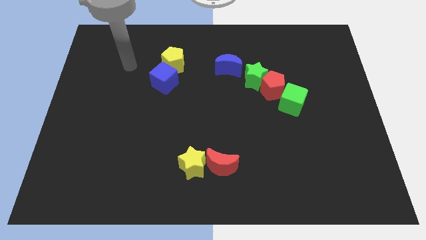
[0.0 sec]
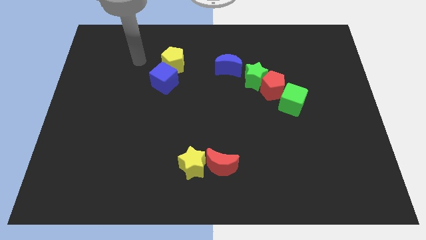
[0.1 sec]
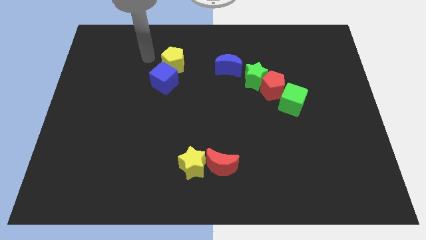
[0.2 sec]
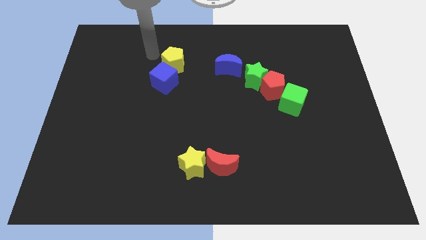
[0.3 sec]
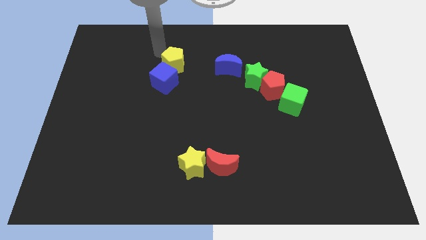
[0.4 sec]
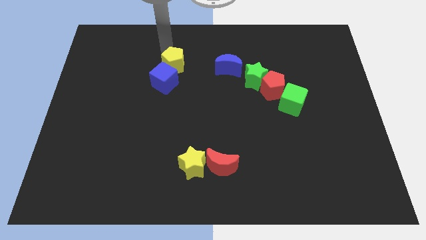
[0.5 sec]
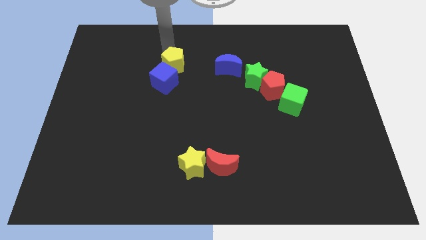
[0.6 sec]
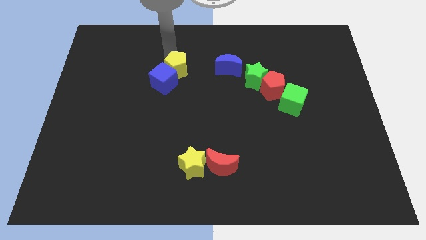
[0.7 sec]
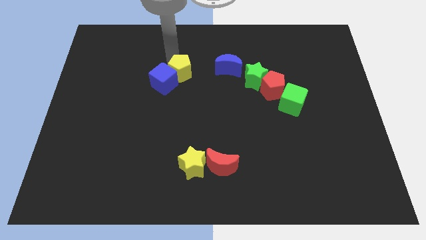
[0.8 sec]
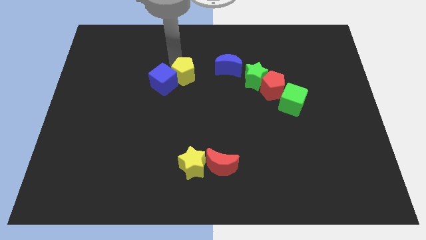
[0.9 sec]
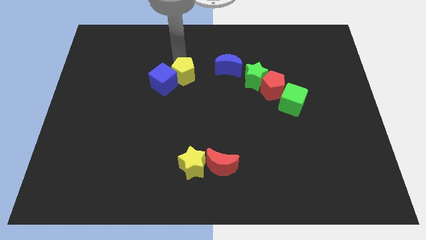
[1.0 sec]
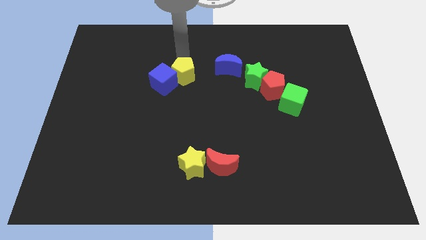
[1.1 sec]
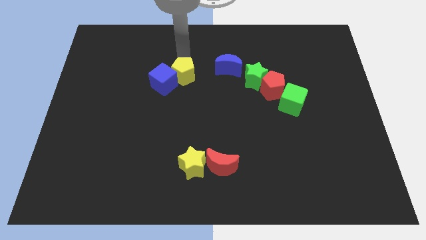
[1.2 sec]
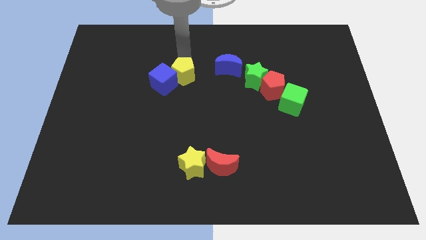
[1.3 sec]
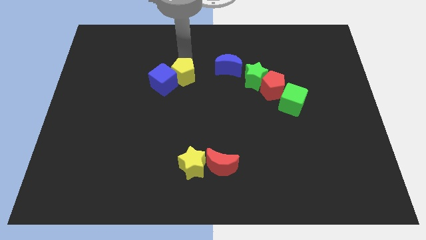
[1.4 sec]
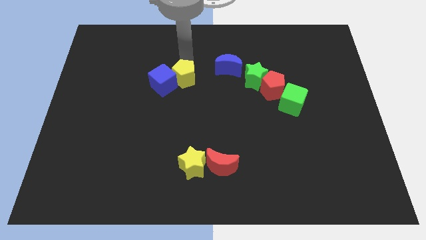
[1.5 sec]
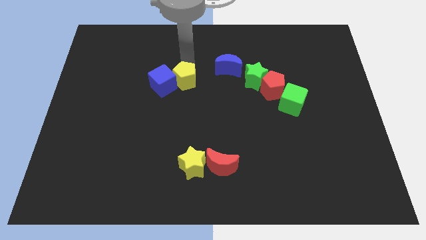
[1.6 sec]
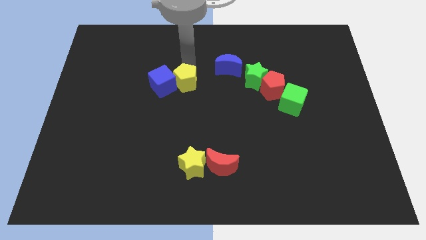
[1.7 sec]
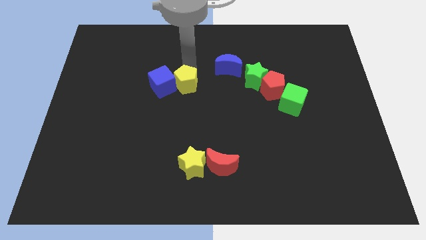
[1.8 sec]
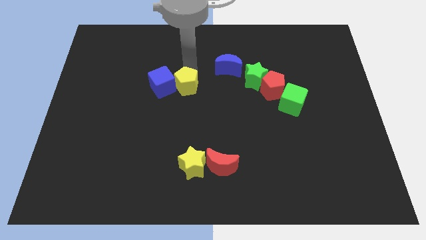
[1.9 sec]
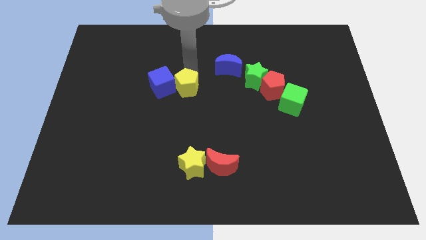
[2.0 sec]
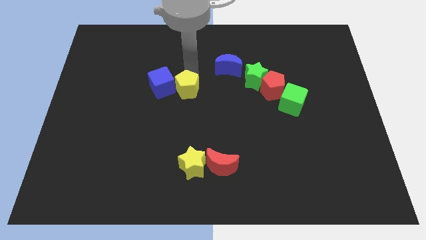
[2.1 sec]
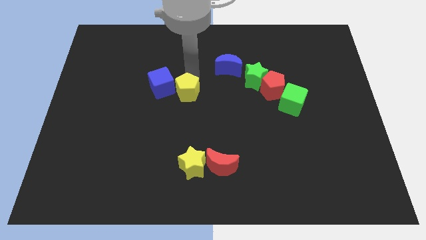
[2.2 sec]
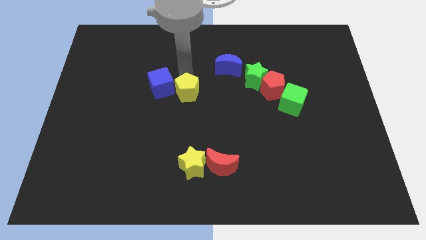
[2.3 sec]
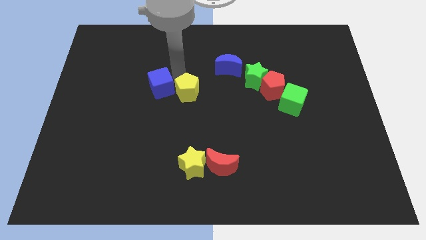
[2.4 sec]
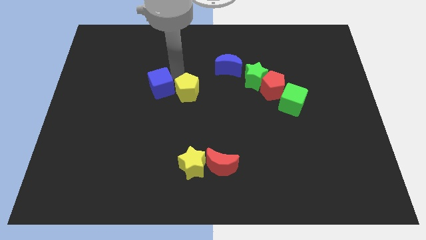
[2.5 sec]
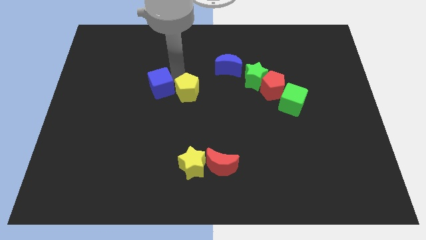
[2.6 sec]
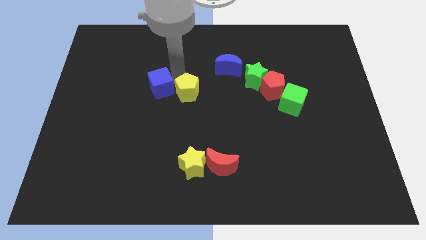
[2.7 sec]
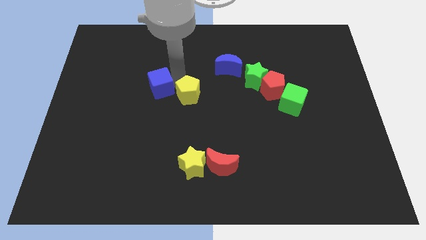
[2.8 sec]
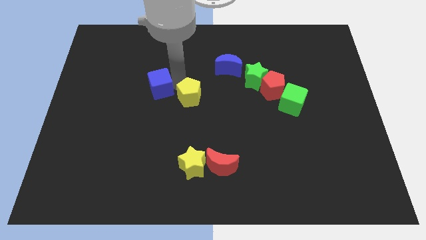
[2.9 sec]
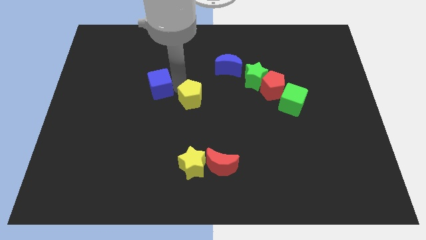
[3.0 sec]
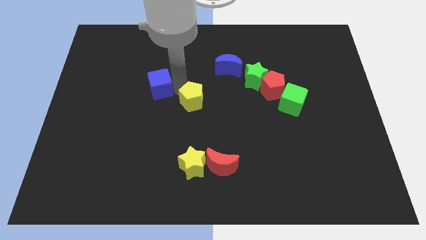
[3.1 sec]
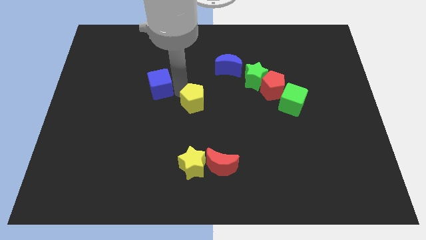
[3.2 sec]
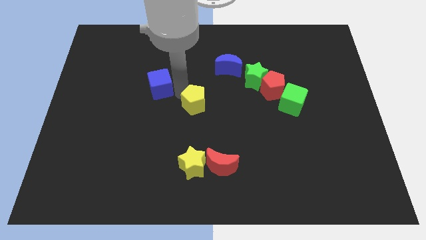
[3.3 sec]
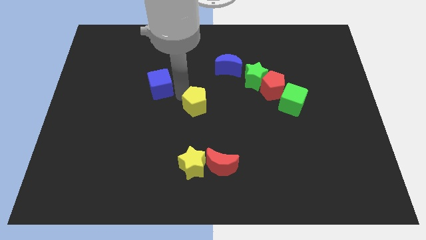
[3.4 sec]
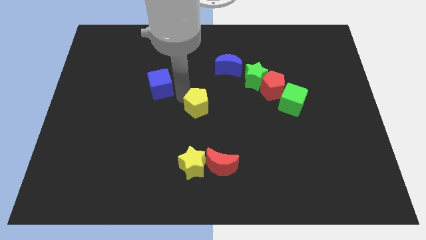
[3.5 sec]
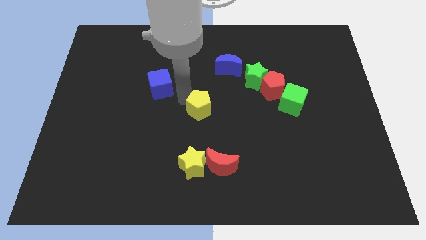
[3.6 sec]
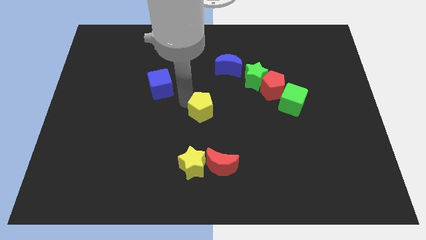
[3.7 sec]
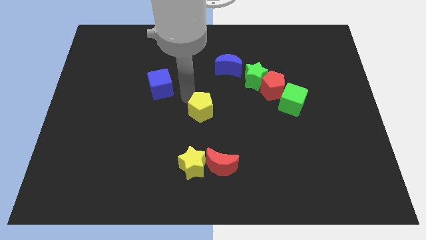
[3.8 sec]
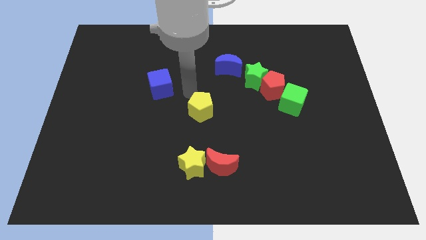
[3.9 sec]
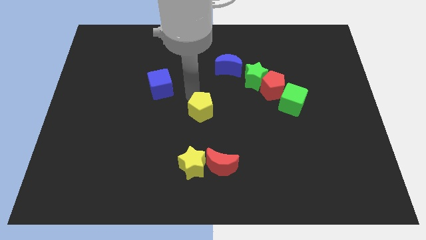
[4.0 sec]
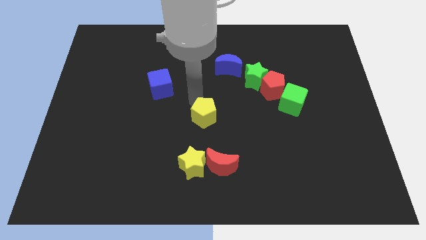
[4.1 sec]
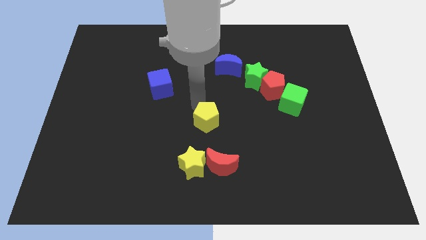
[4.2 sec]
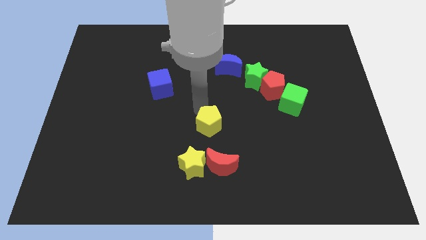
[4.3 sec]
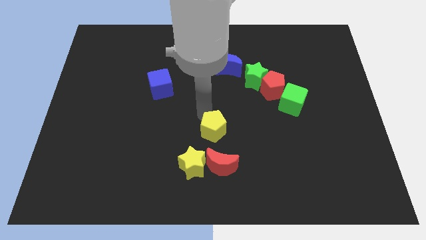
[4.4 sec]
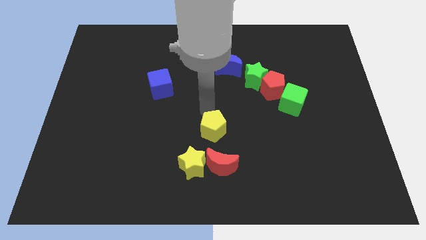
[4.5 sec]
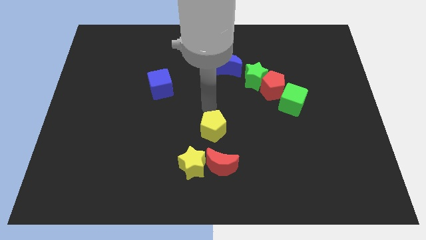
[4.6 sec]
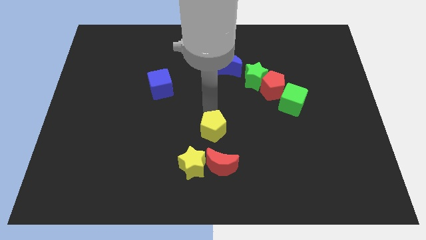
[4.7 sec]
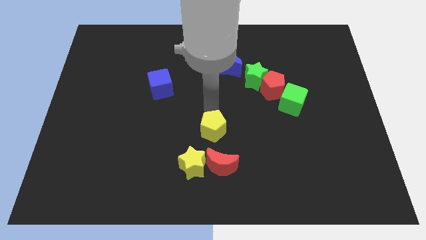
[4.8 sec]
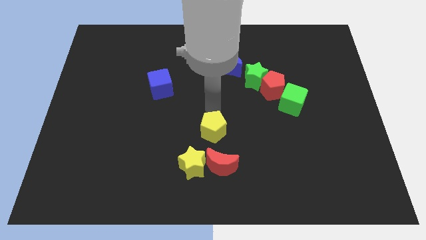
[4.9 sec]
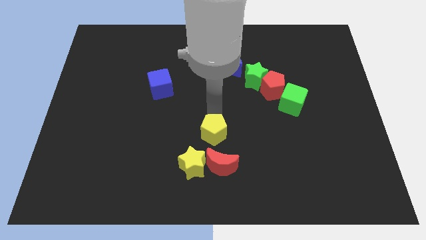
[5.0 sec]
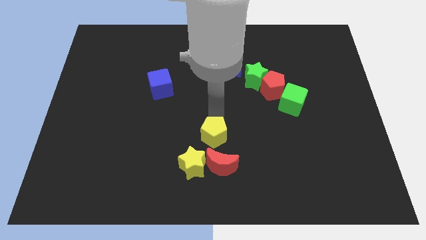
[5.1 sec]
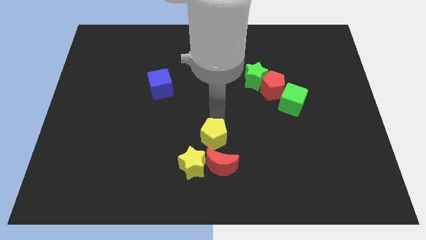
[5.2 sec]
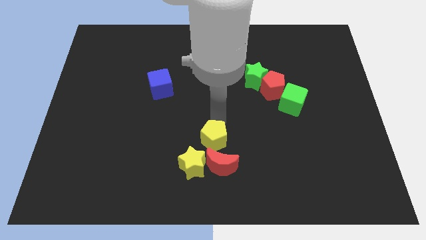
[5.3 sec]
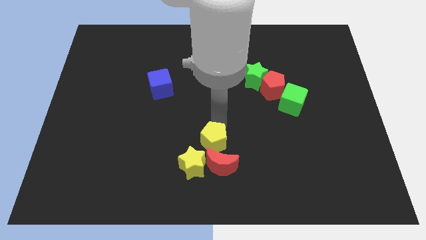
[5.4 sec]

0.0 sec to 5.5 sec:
put the yellow pentagon close to the red moon

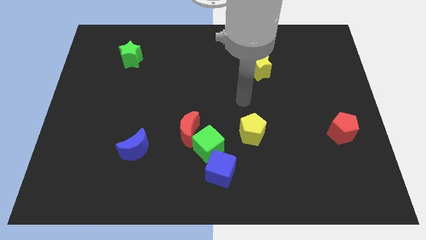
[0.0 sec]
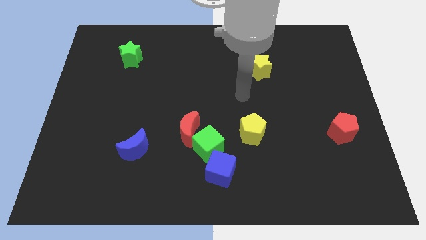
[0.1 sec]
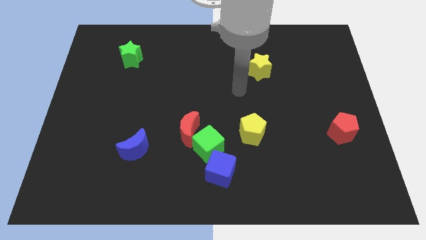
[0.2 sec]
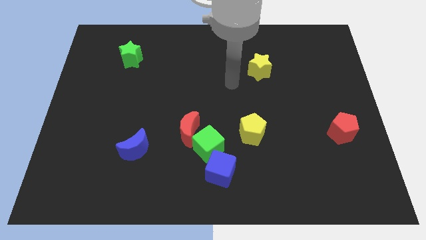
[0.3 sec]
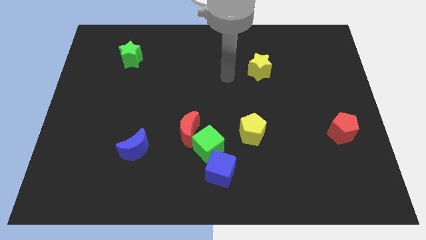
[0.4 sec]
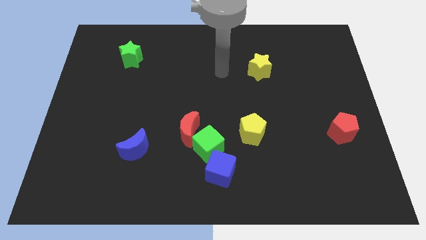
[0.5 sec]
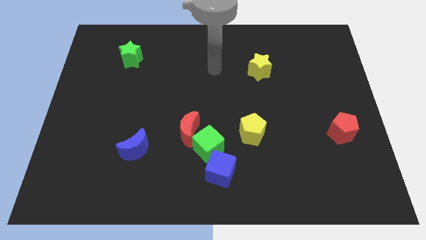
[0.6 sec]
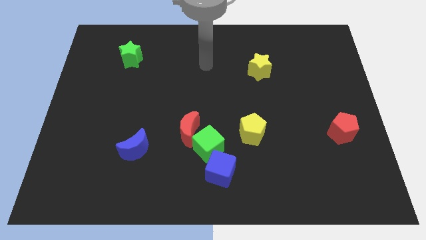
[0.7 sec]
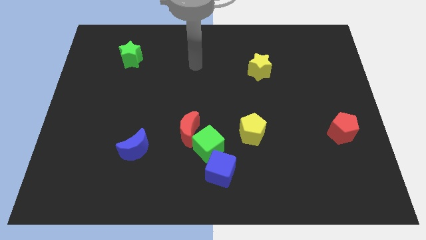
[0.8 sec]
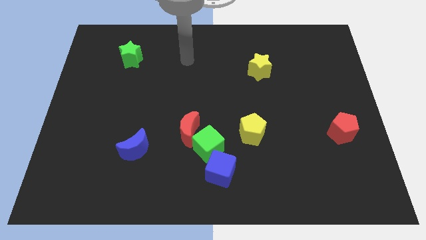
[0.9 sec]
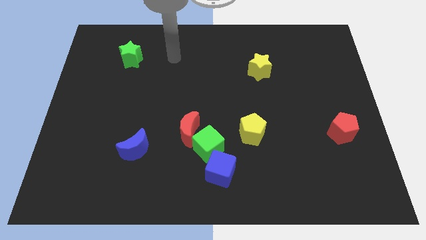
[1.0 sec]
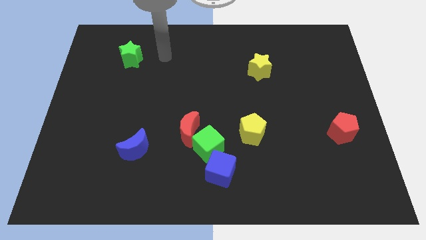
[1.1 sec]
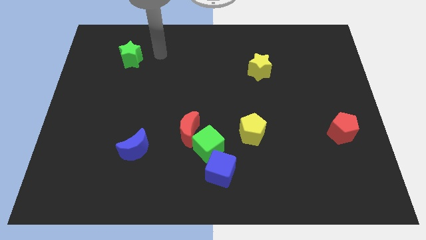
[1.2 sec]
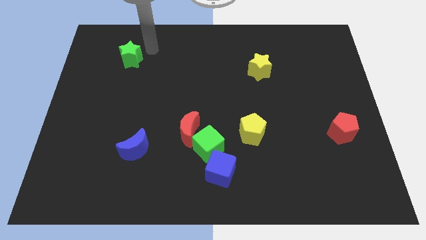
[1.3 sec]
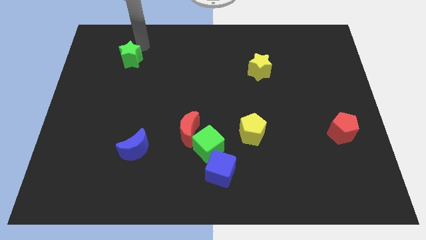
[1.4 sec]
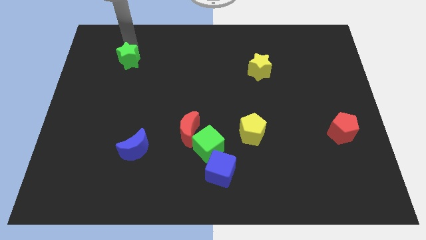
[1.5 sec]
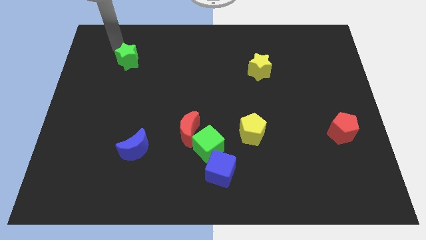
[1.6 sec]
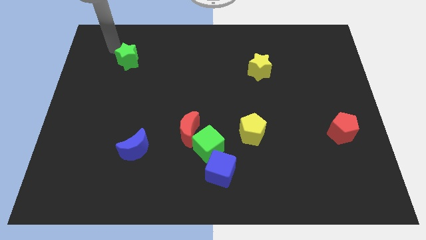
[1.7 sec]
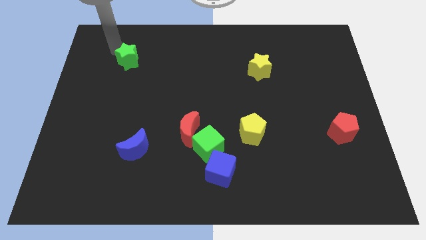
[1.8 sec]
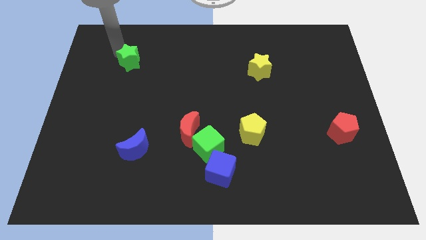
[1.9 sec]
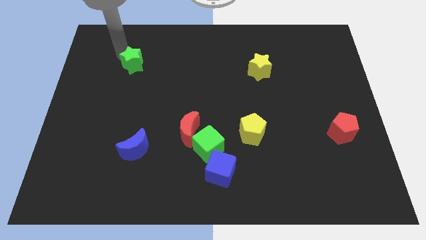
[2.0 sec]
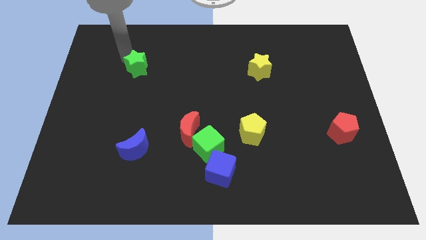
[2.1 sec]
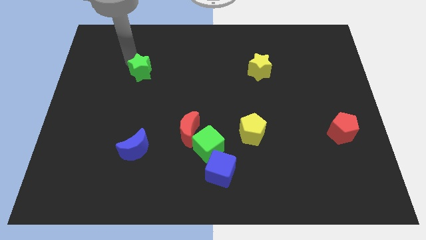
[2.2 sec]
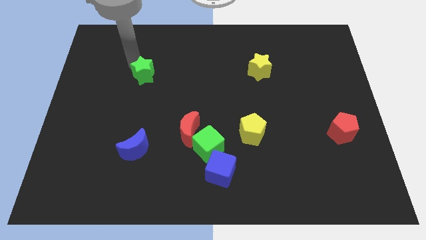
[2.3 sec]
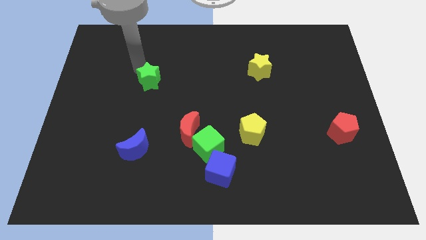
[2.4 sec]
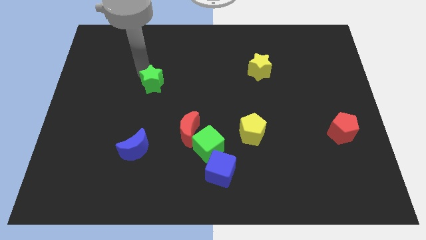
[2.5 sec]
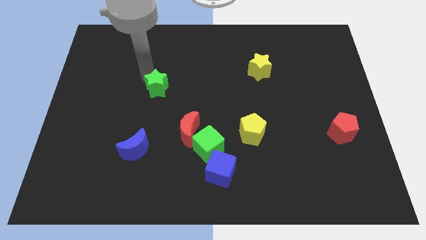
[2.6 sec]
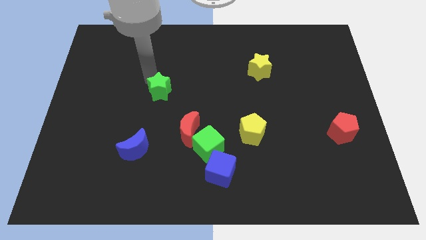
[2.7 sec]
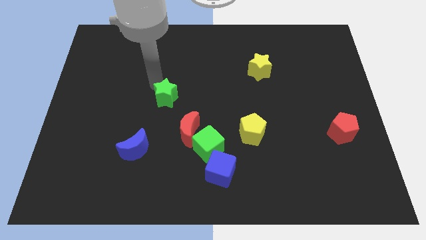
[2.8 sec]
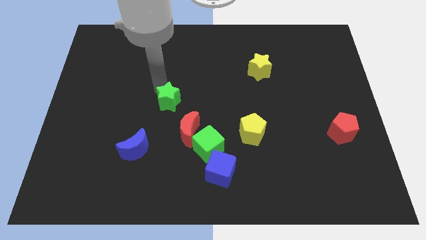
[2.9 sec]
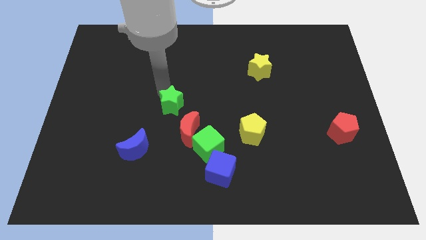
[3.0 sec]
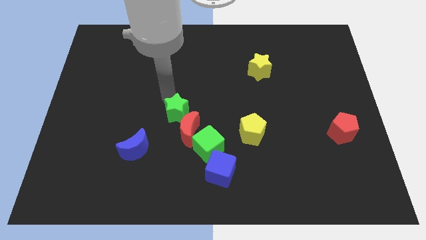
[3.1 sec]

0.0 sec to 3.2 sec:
slide the green star next to the red moon
